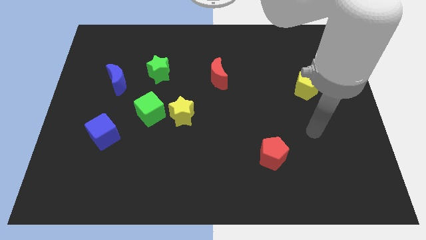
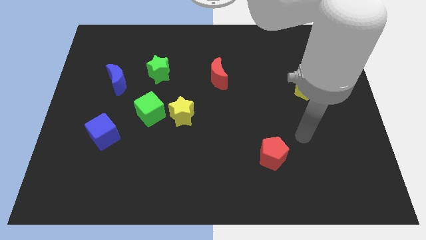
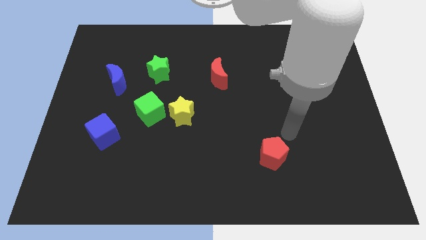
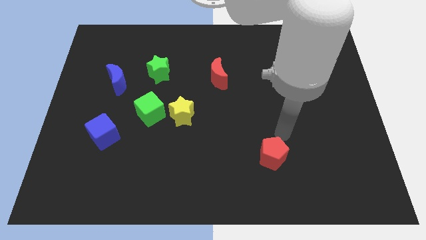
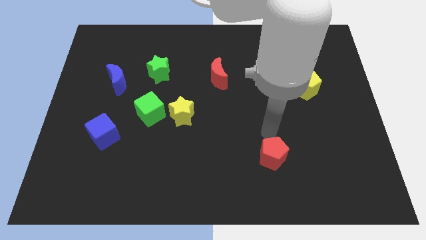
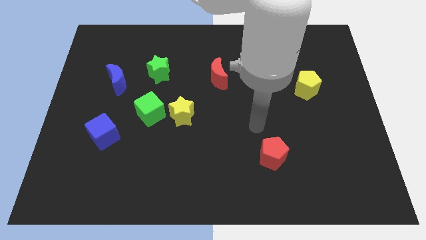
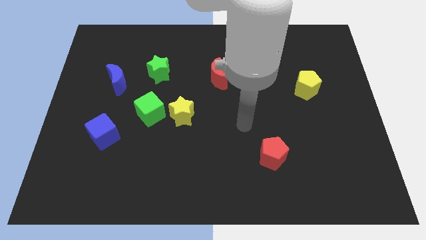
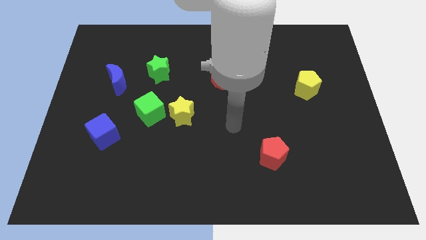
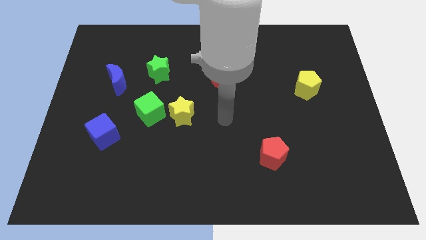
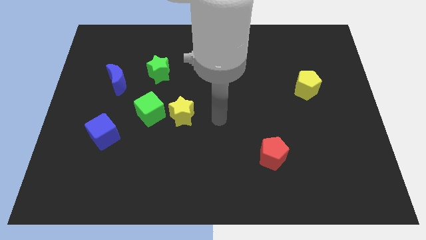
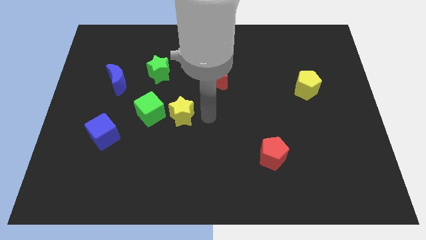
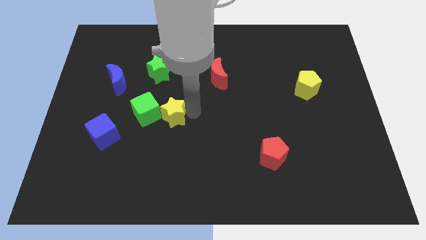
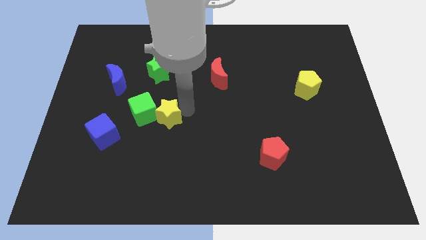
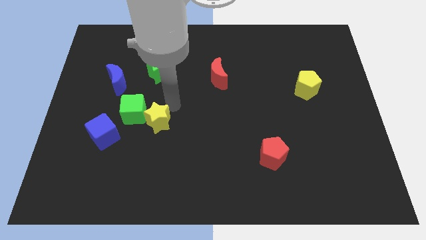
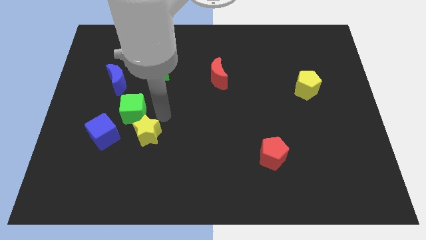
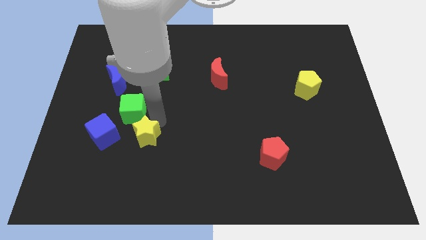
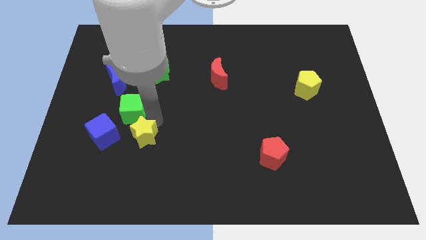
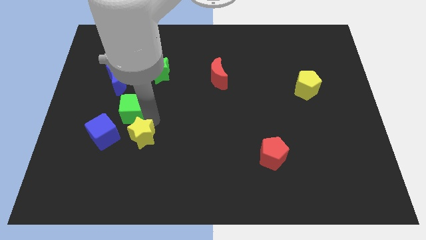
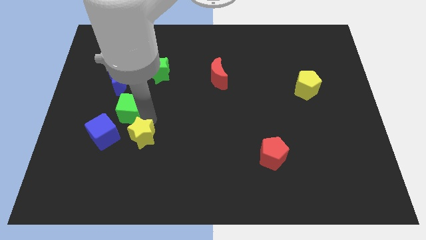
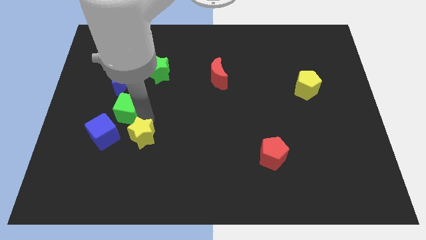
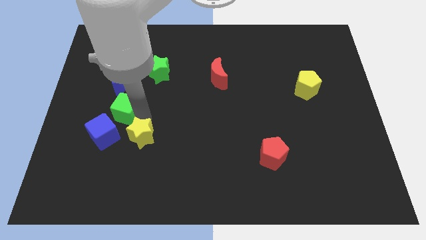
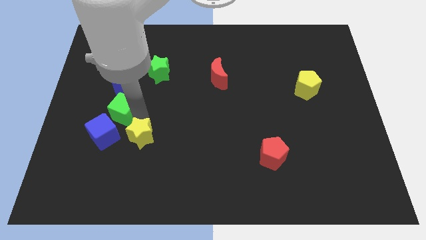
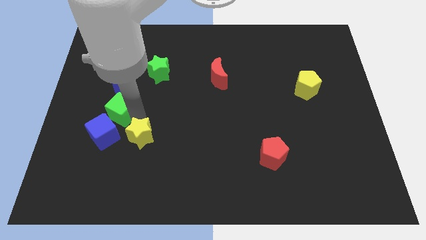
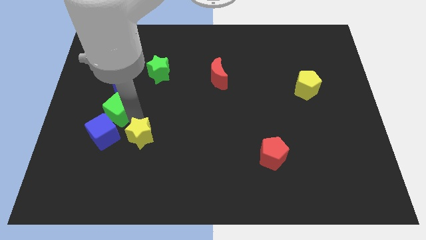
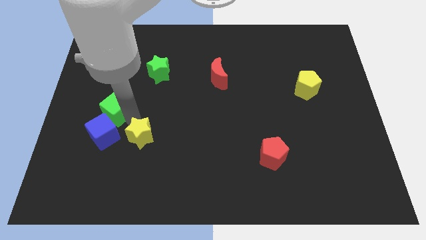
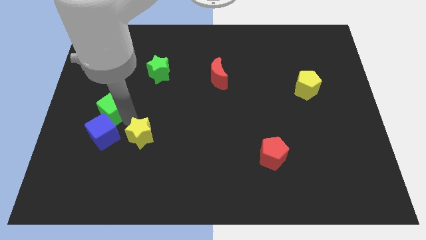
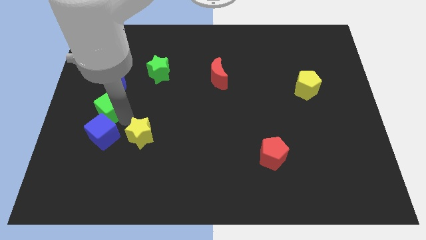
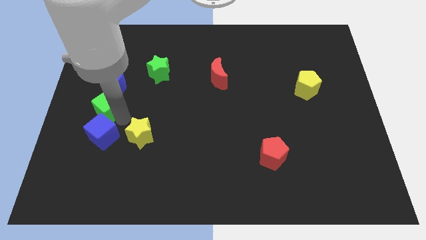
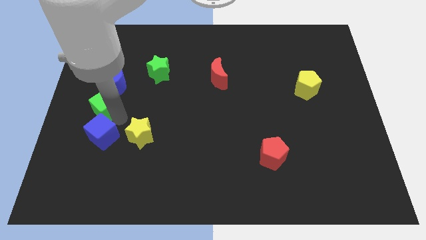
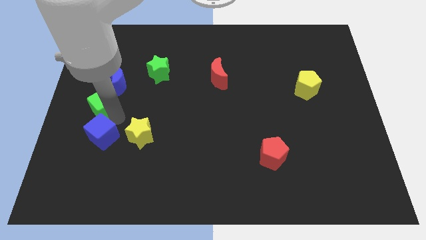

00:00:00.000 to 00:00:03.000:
push the green cube up and then left somewhat

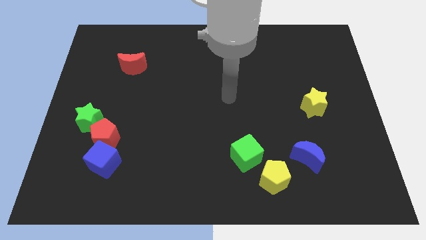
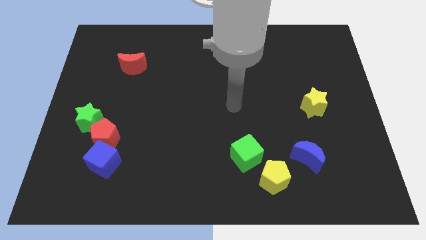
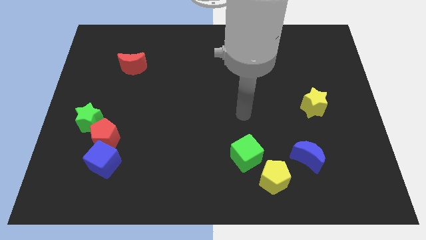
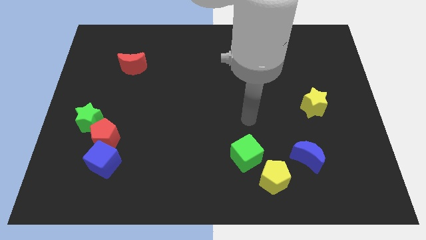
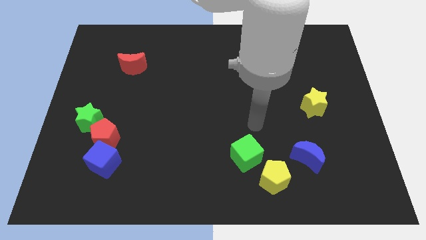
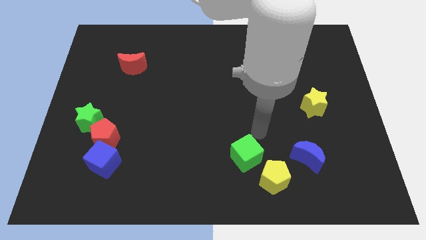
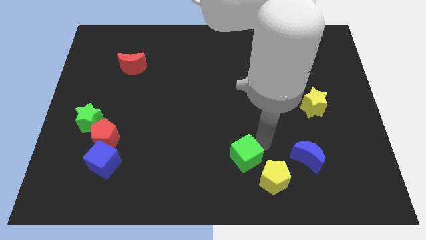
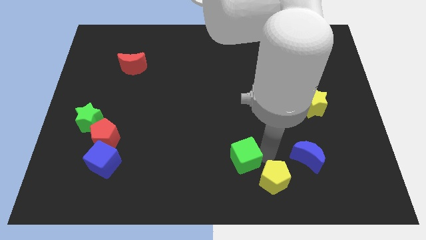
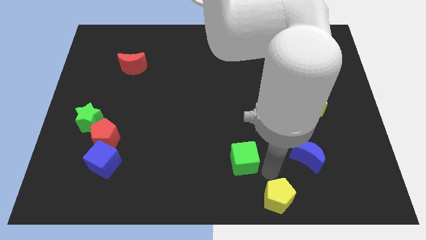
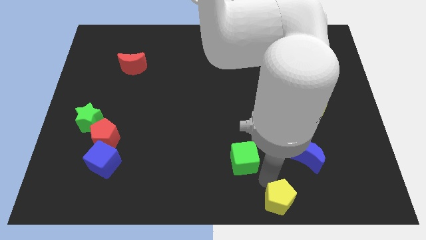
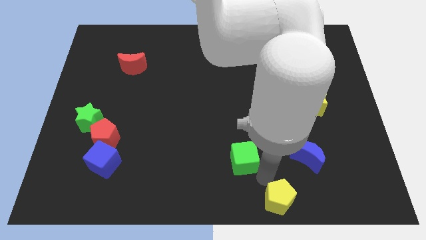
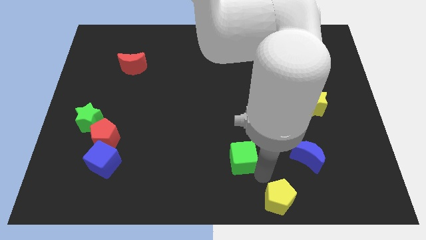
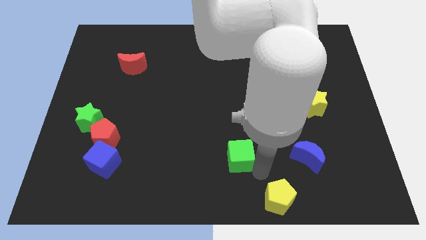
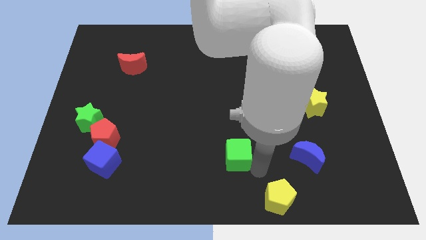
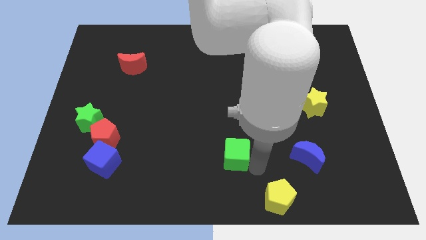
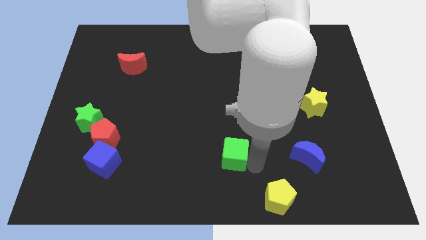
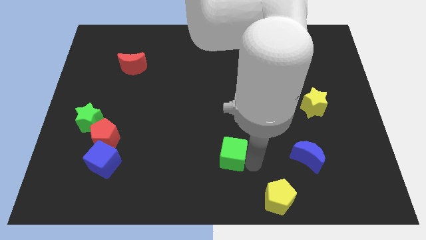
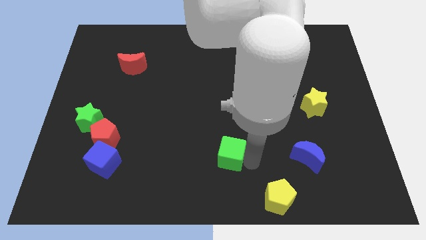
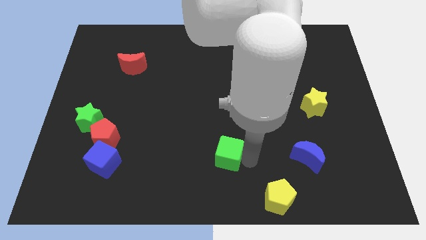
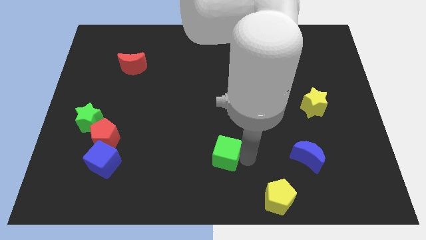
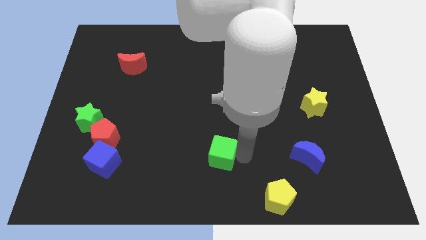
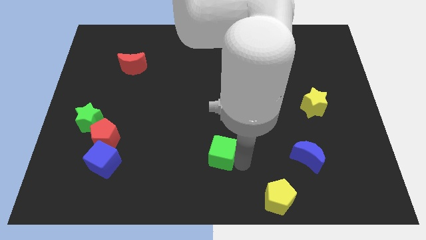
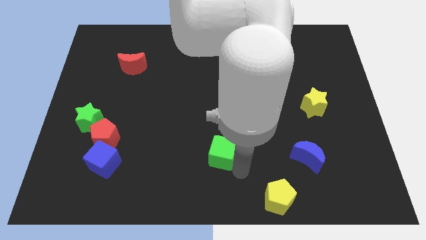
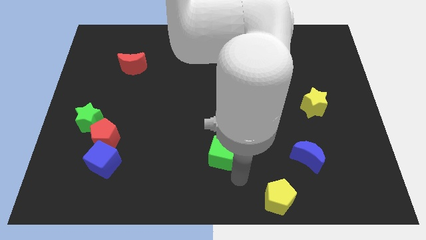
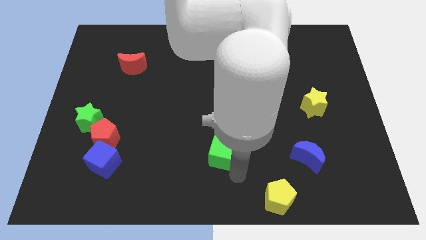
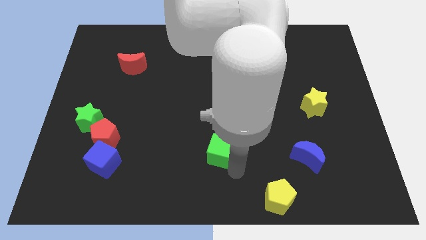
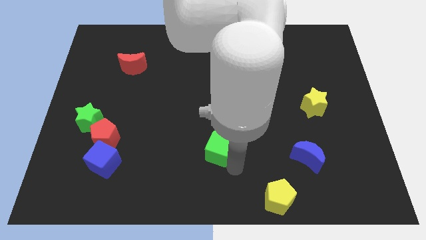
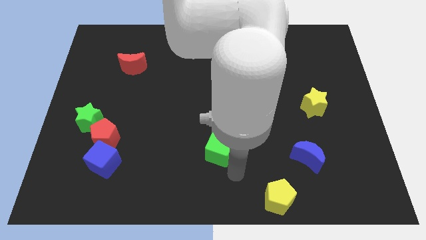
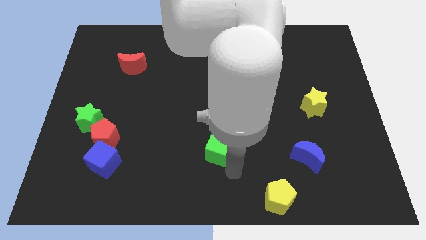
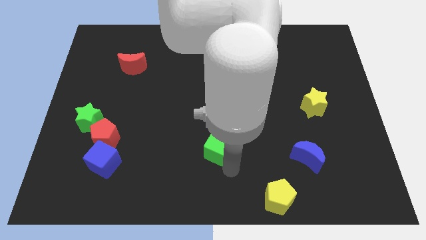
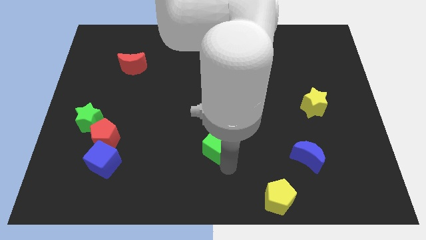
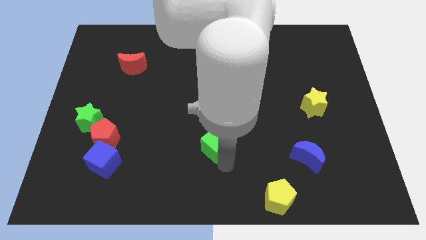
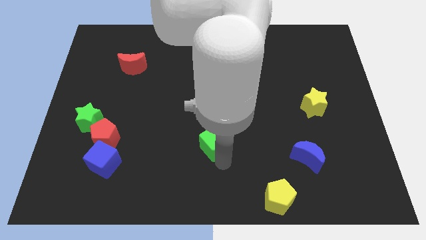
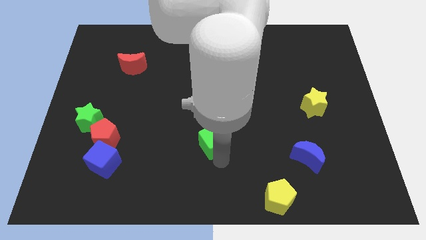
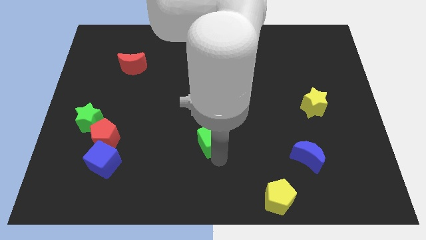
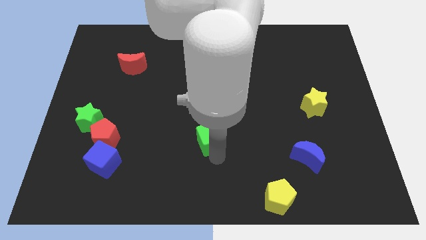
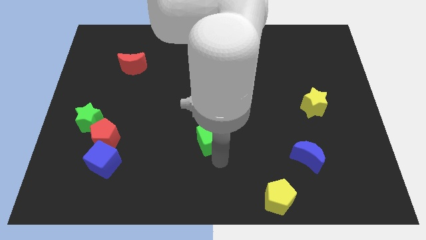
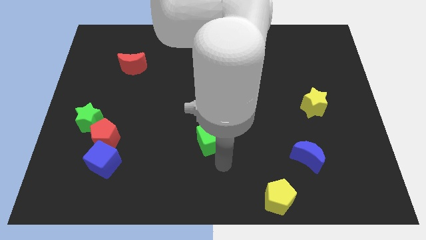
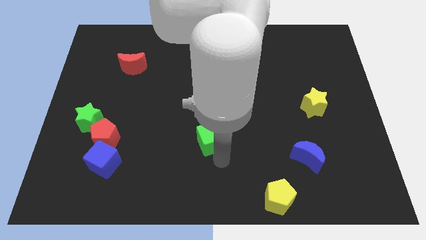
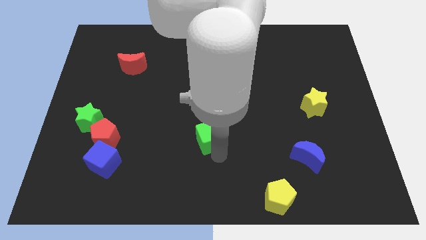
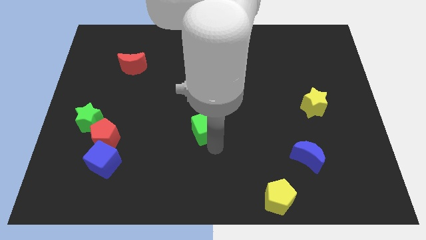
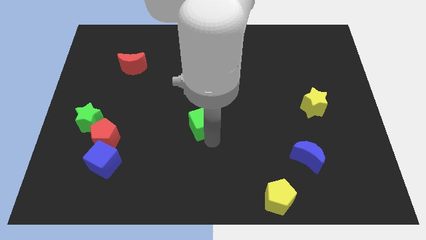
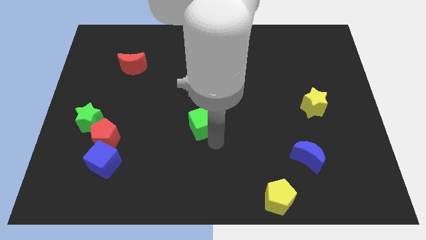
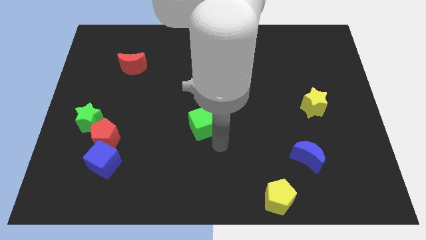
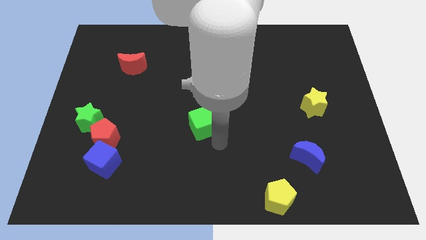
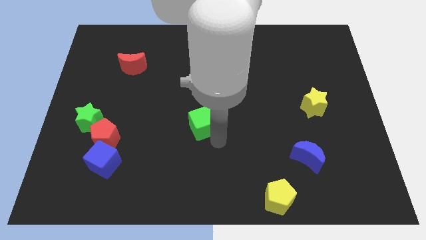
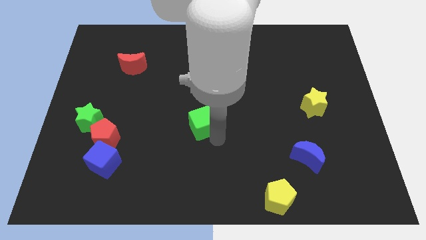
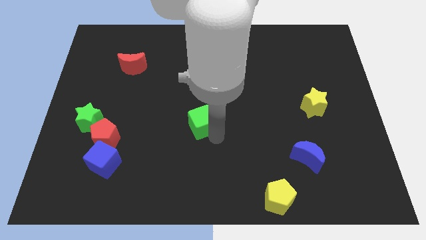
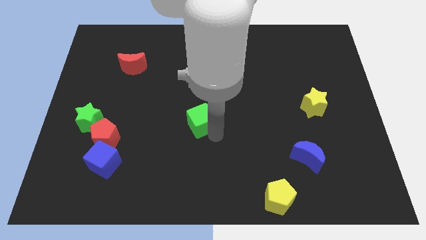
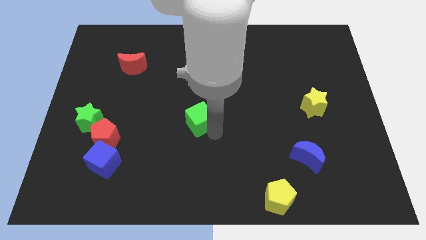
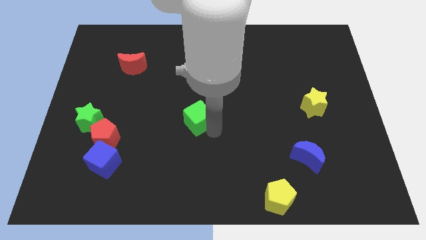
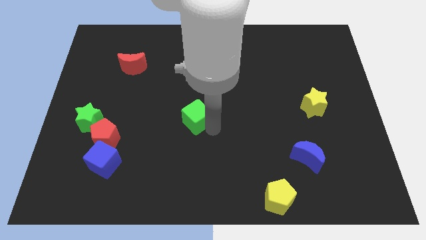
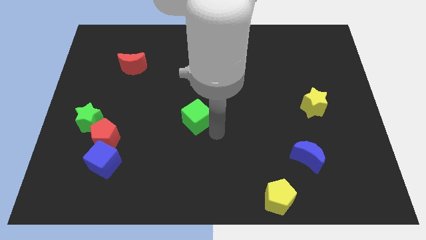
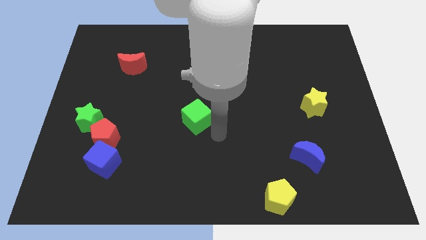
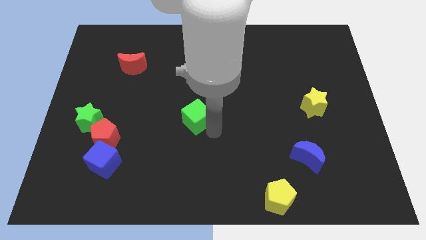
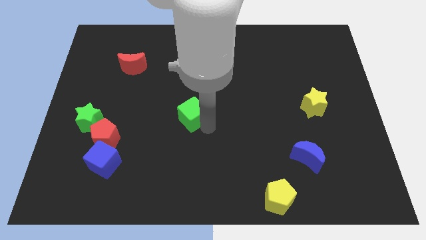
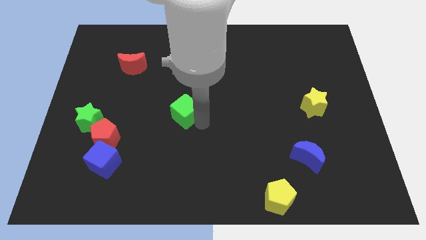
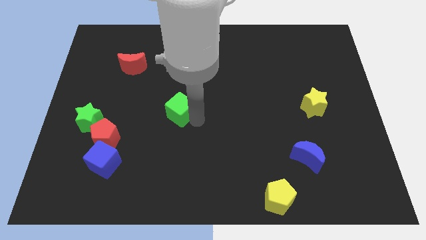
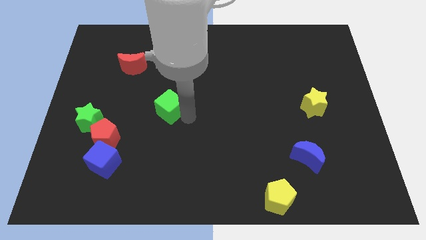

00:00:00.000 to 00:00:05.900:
push the green cube diagonally upwards and to the left
